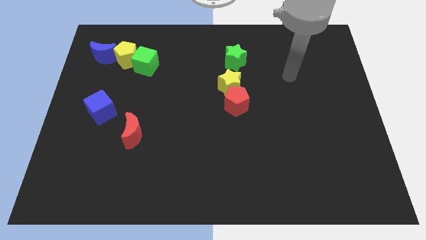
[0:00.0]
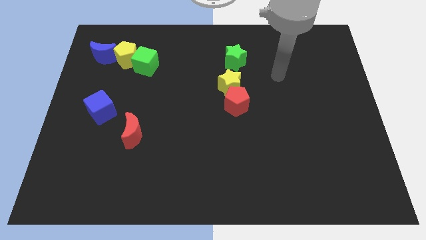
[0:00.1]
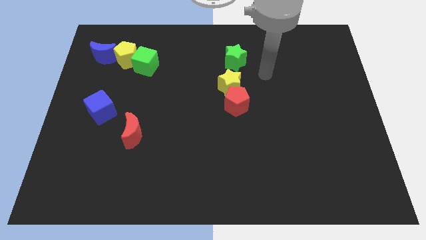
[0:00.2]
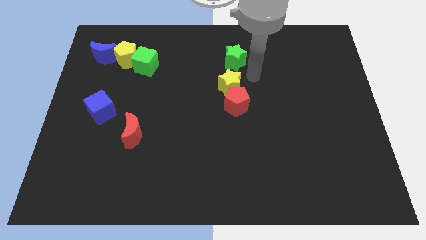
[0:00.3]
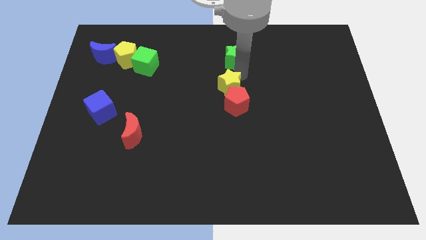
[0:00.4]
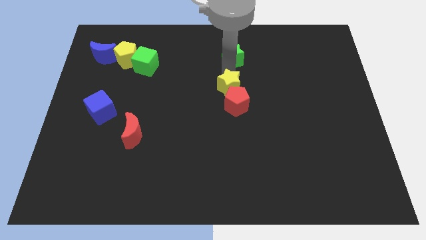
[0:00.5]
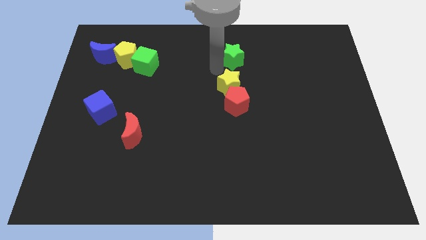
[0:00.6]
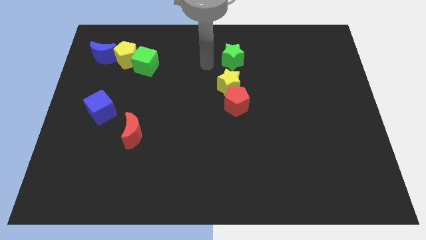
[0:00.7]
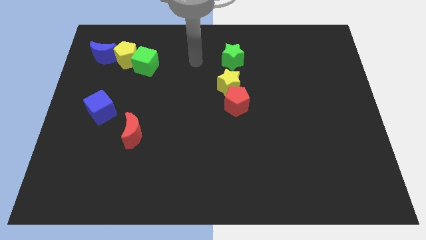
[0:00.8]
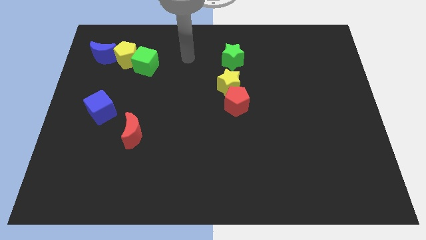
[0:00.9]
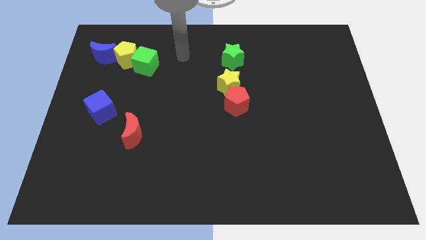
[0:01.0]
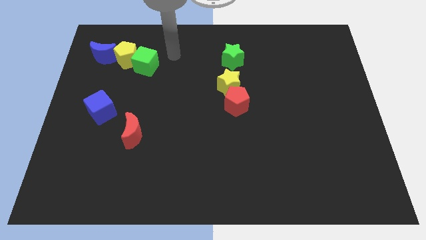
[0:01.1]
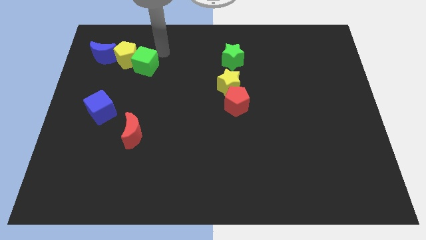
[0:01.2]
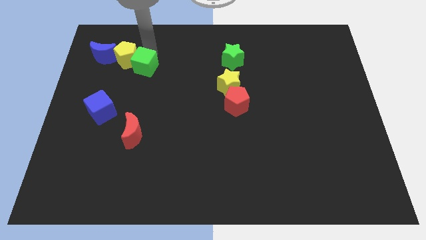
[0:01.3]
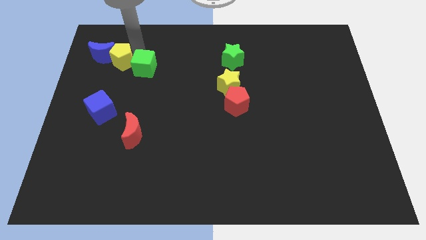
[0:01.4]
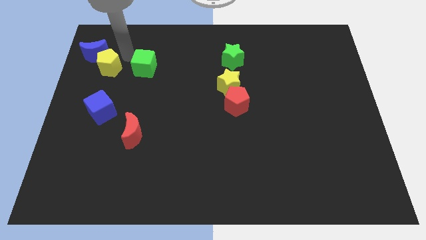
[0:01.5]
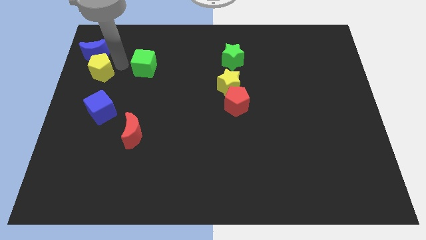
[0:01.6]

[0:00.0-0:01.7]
separate the green cube from the yellow pentagon

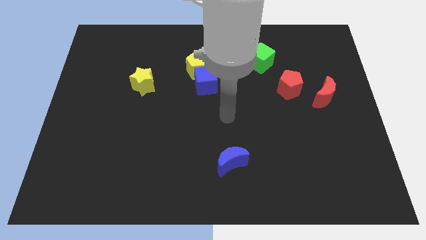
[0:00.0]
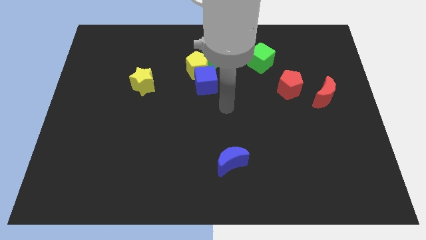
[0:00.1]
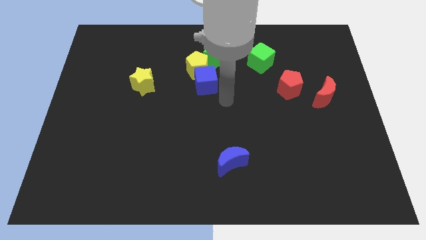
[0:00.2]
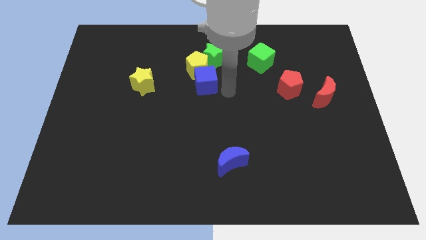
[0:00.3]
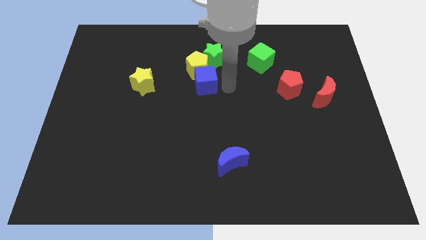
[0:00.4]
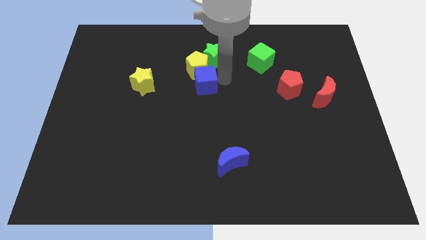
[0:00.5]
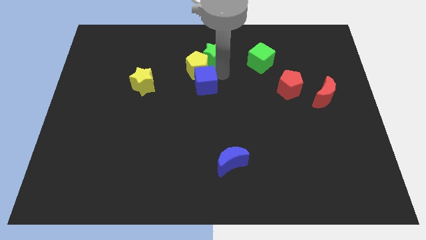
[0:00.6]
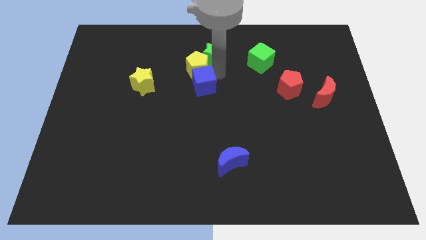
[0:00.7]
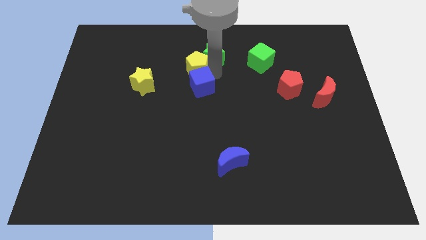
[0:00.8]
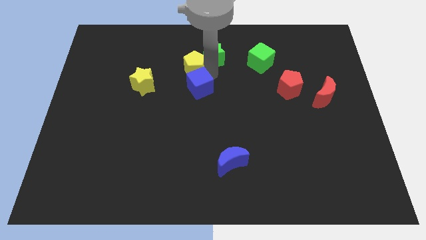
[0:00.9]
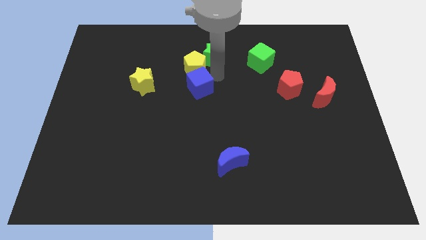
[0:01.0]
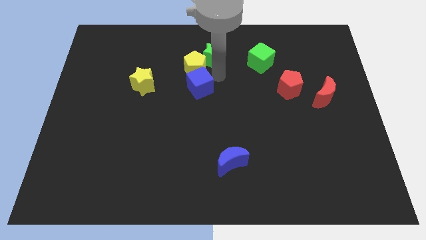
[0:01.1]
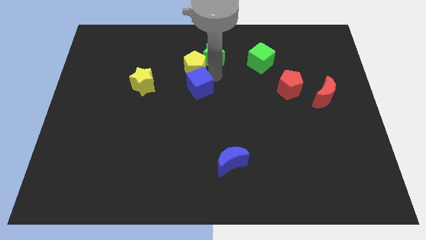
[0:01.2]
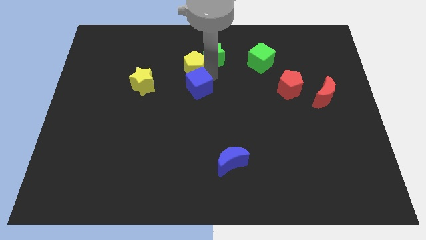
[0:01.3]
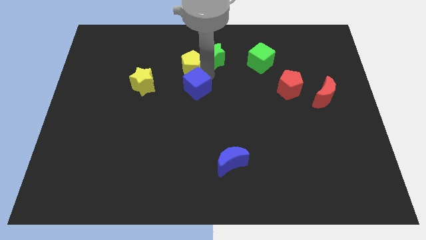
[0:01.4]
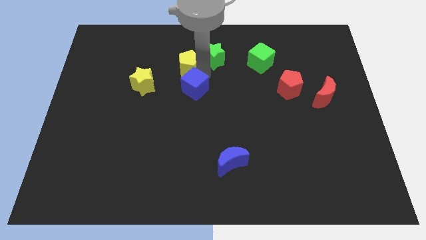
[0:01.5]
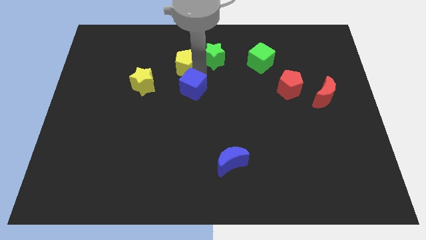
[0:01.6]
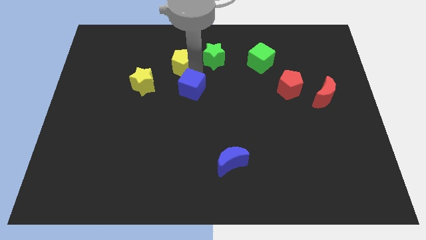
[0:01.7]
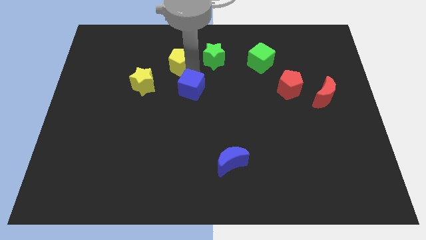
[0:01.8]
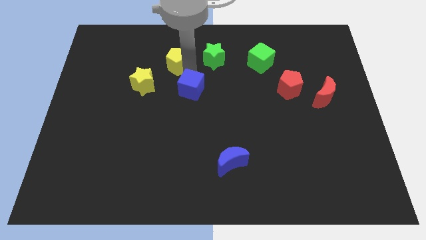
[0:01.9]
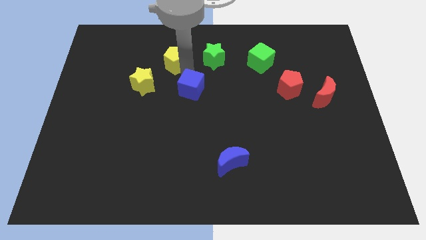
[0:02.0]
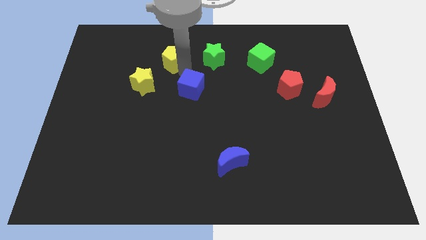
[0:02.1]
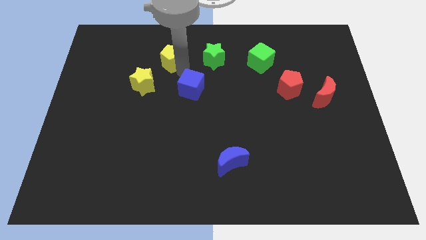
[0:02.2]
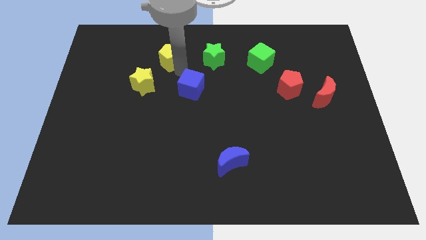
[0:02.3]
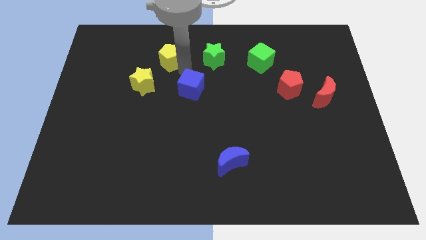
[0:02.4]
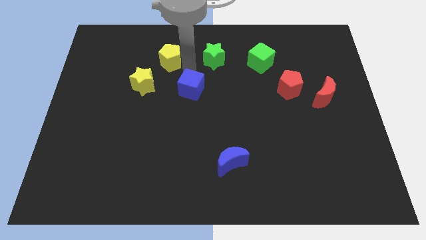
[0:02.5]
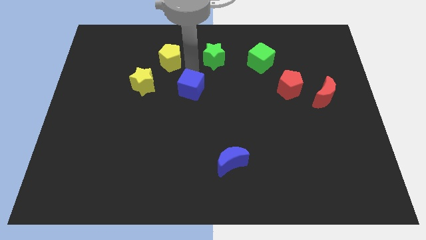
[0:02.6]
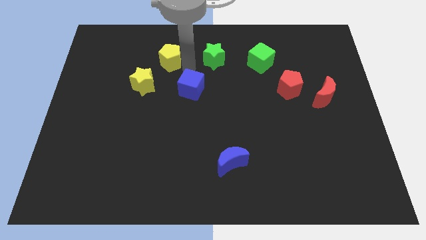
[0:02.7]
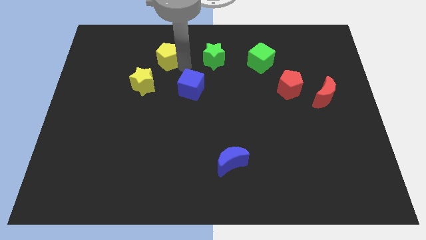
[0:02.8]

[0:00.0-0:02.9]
separate the yellow pentagon from the green star and blue cube

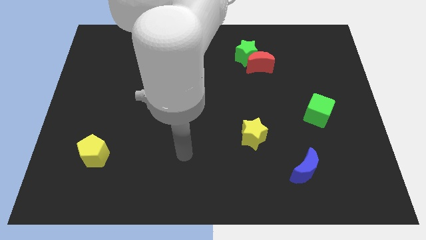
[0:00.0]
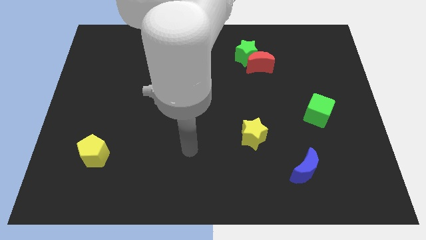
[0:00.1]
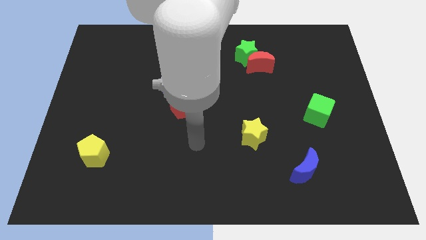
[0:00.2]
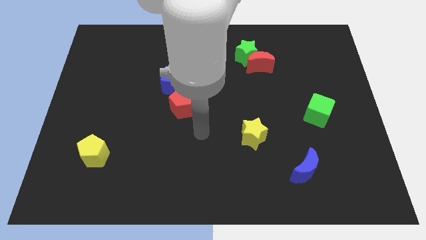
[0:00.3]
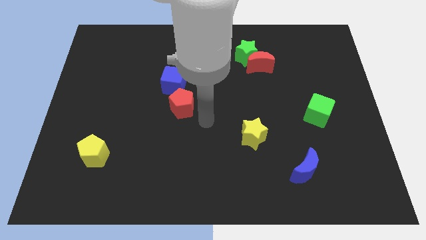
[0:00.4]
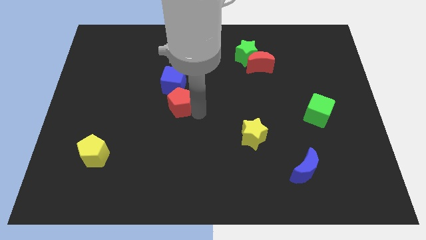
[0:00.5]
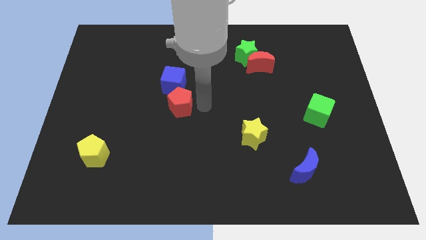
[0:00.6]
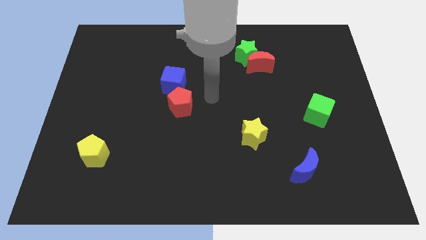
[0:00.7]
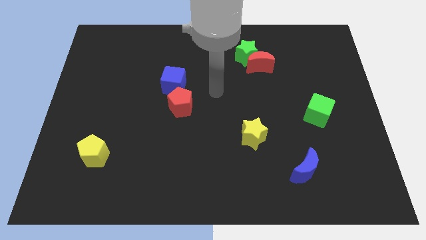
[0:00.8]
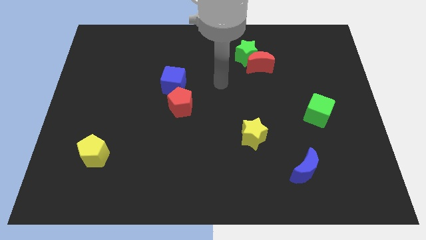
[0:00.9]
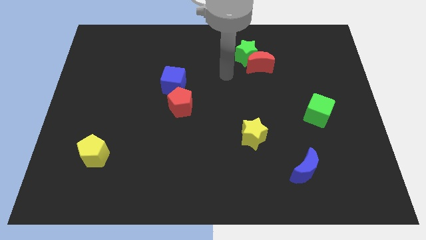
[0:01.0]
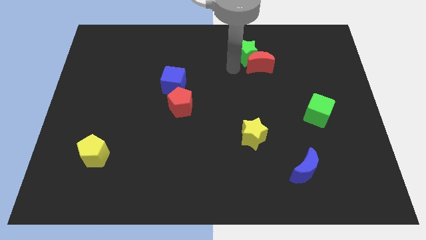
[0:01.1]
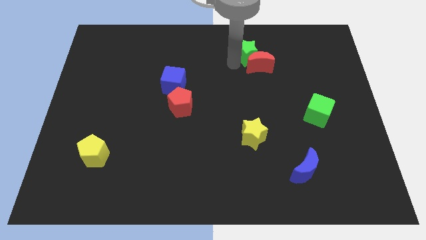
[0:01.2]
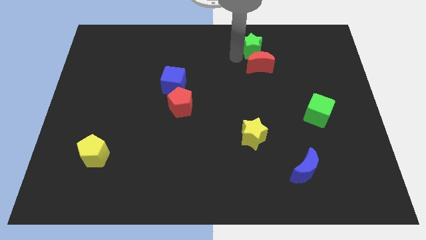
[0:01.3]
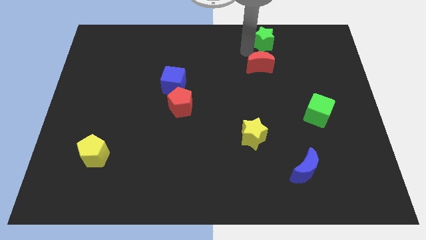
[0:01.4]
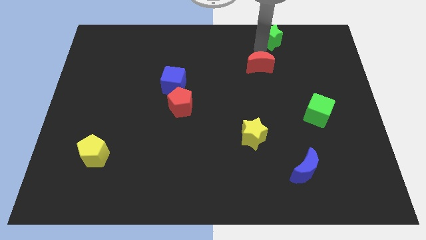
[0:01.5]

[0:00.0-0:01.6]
move the red moon away from the green star

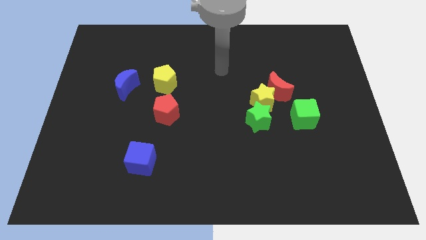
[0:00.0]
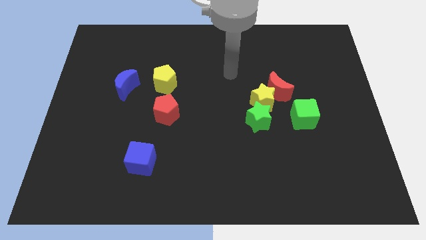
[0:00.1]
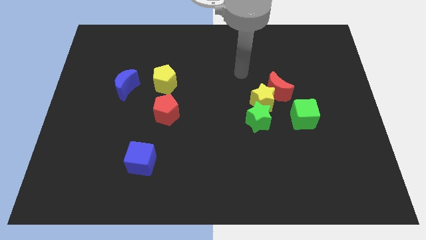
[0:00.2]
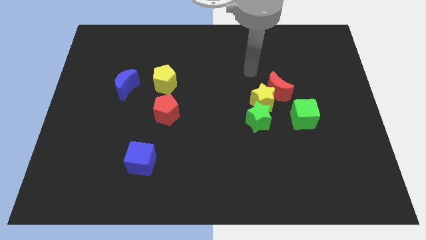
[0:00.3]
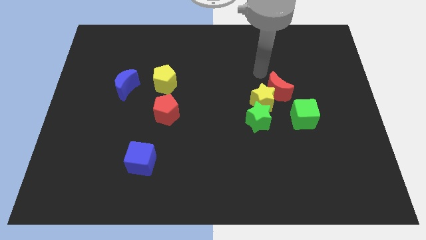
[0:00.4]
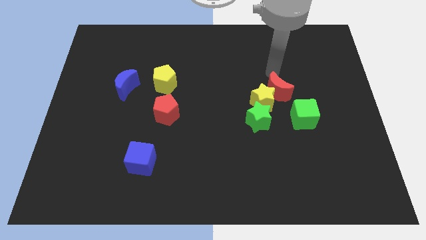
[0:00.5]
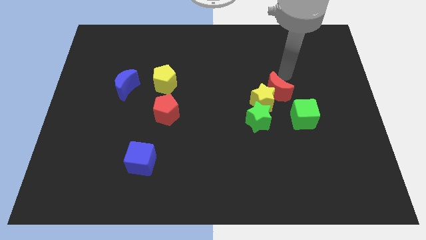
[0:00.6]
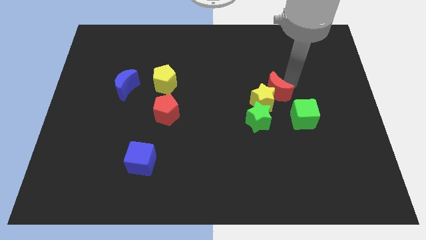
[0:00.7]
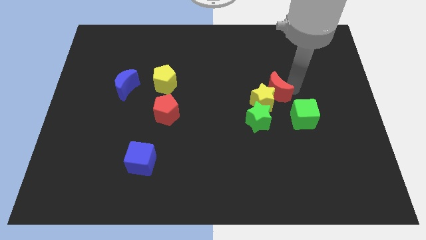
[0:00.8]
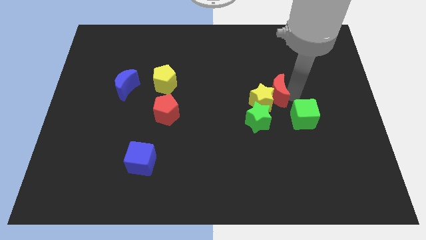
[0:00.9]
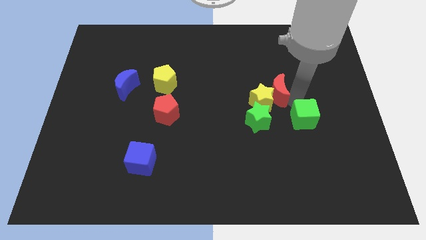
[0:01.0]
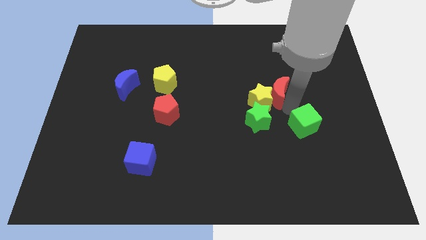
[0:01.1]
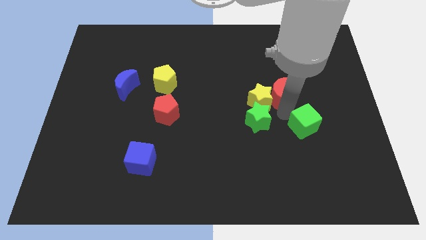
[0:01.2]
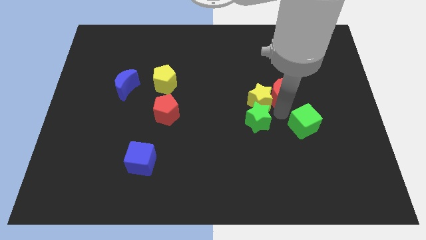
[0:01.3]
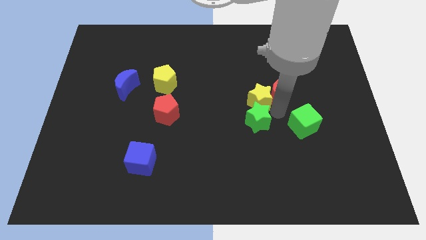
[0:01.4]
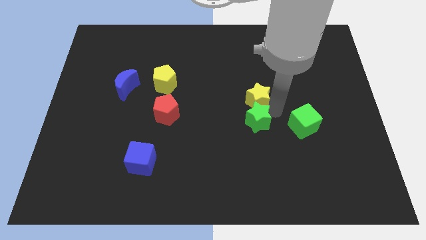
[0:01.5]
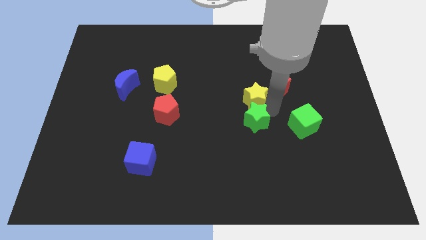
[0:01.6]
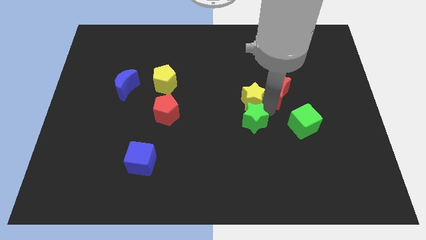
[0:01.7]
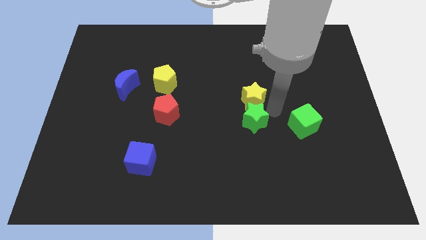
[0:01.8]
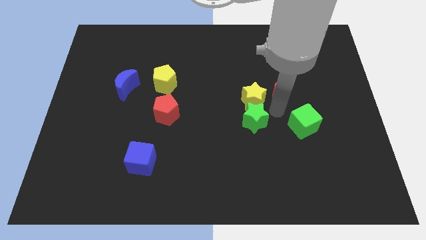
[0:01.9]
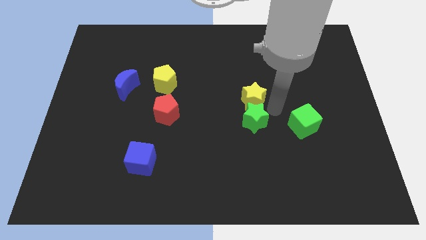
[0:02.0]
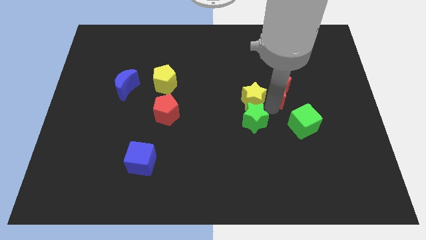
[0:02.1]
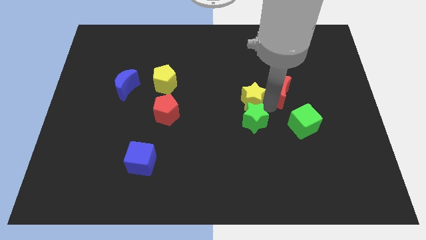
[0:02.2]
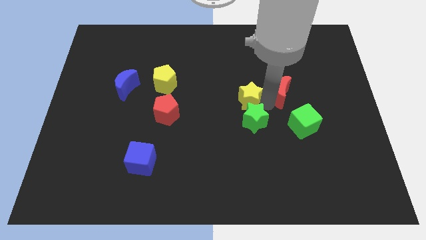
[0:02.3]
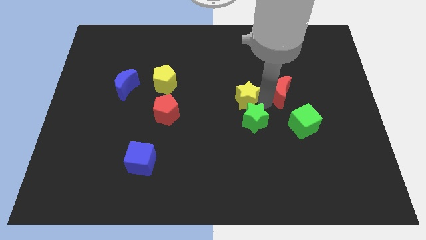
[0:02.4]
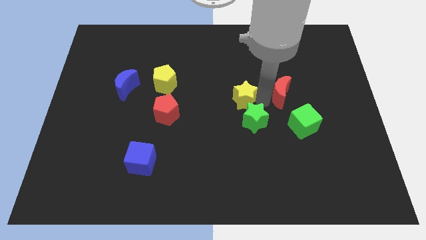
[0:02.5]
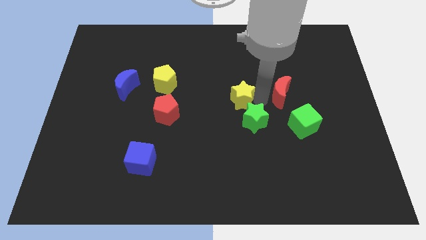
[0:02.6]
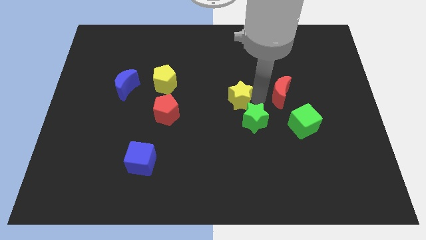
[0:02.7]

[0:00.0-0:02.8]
pull the yellow star apart from the group of blocks

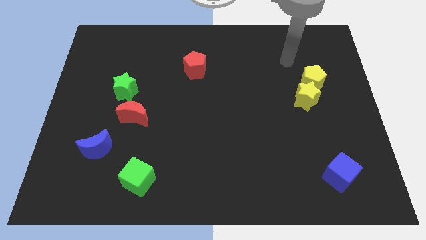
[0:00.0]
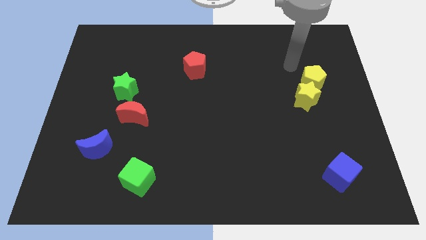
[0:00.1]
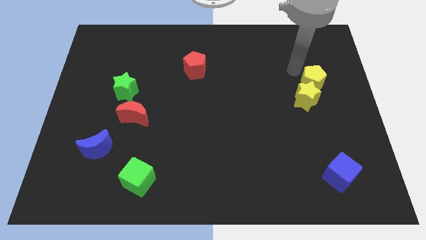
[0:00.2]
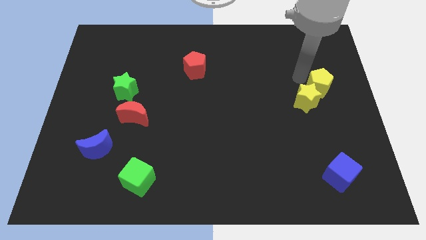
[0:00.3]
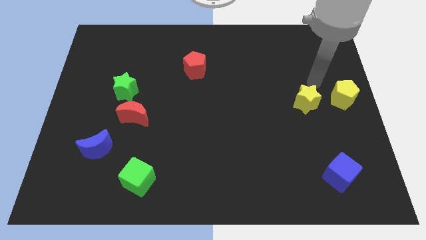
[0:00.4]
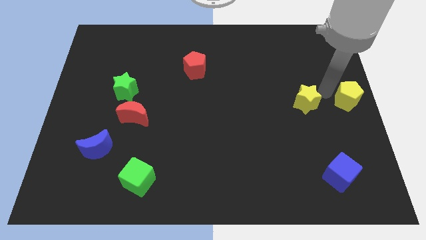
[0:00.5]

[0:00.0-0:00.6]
move the yellow star away from the yellow pentagon
